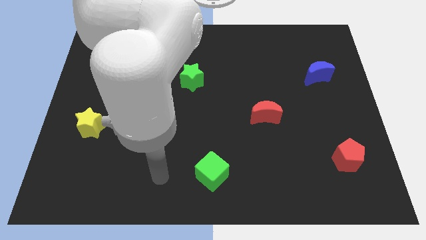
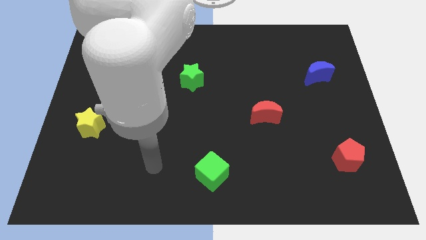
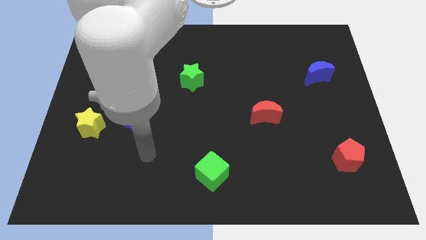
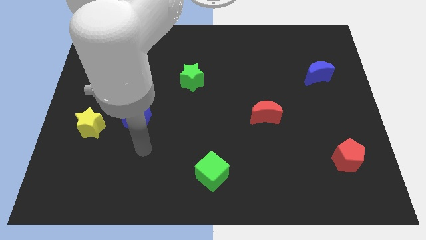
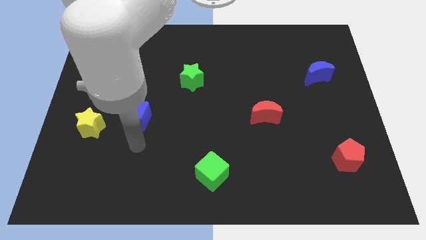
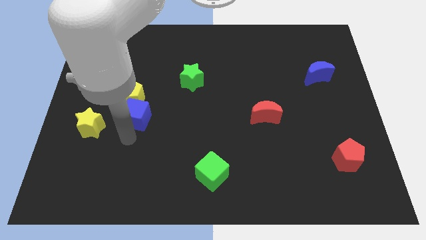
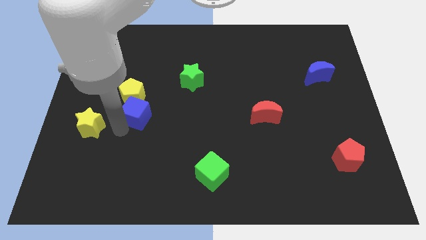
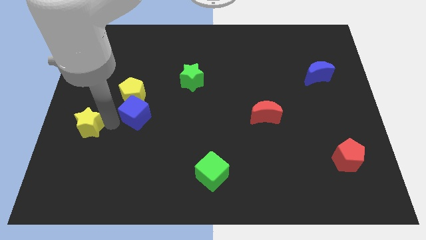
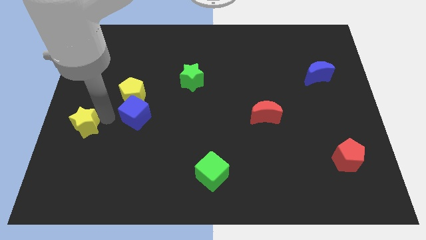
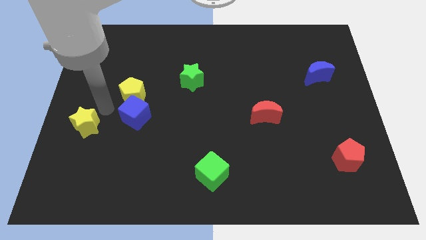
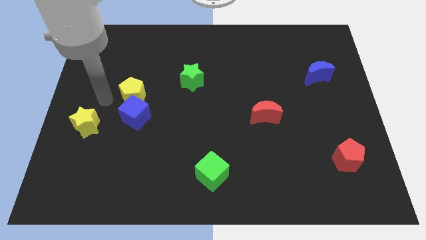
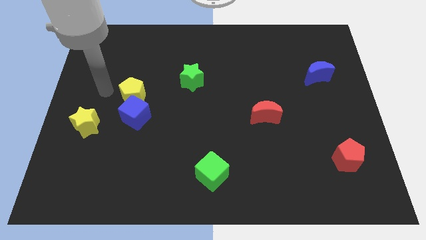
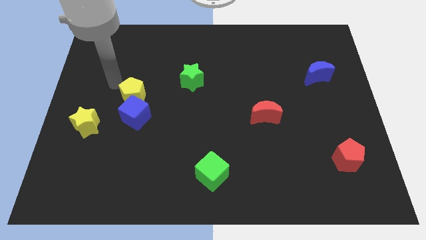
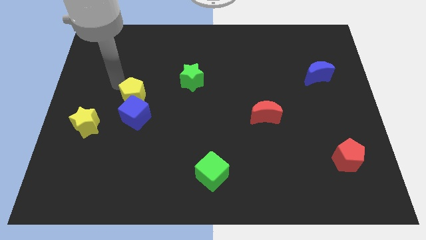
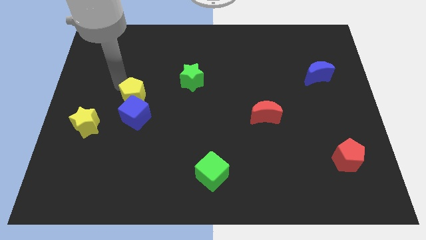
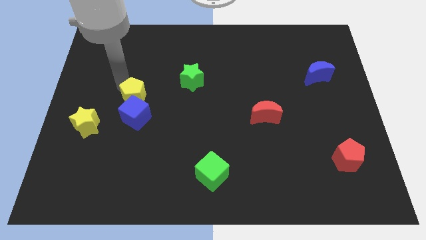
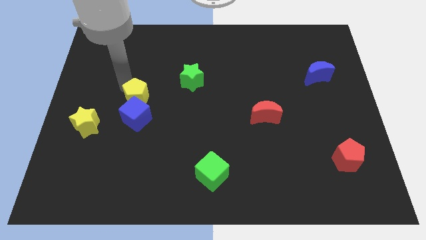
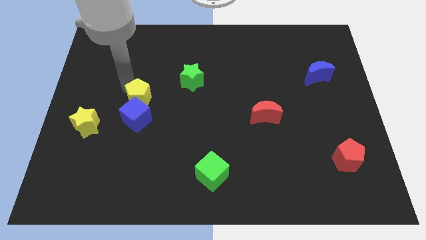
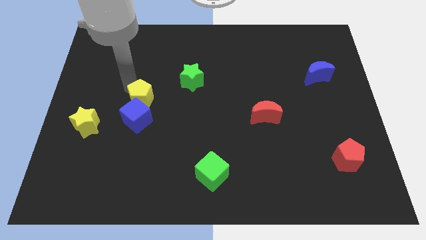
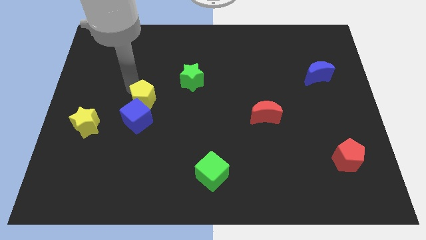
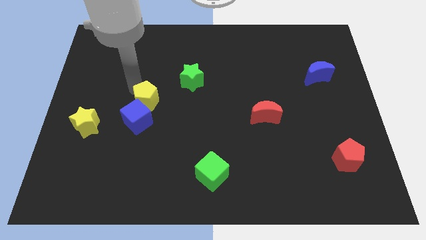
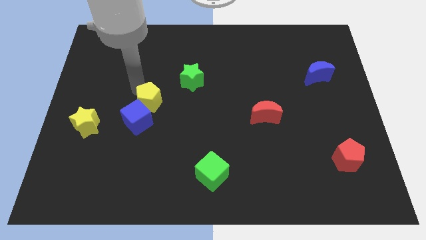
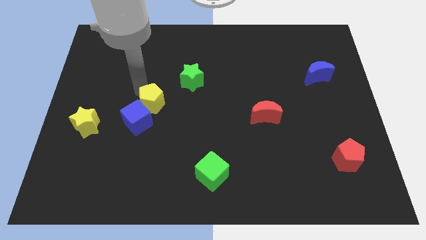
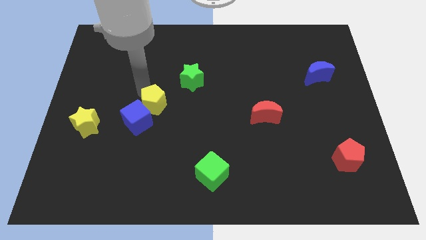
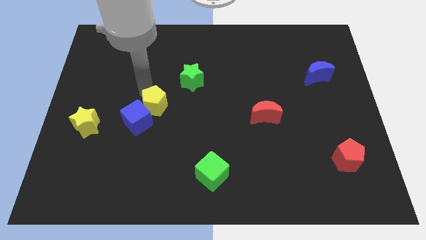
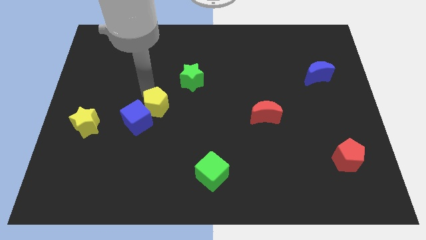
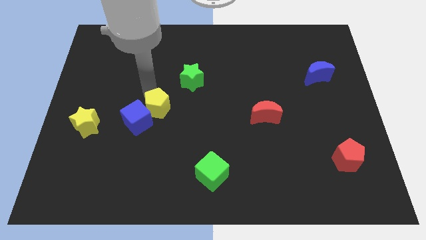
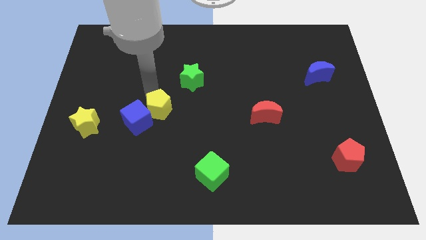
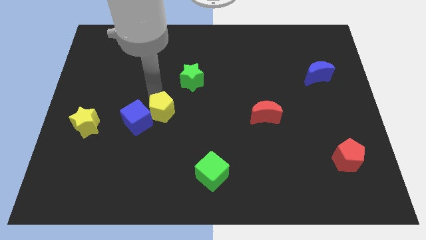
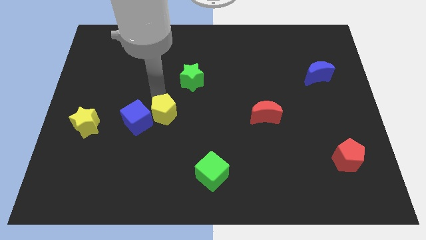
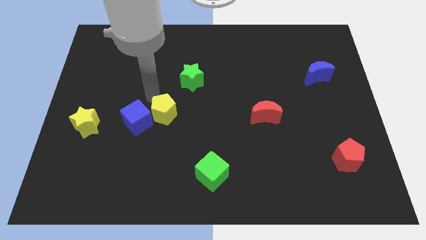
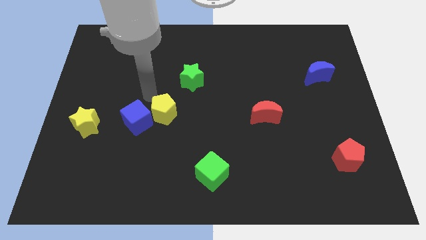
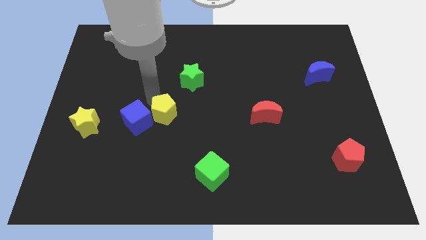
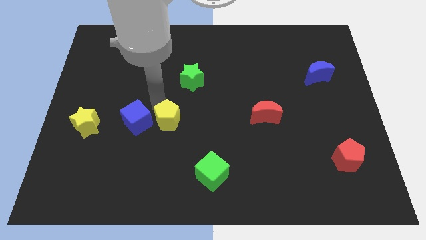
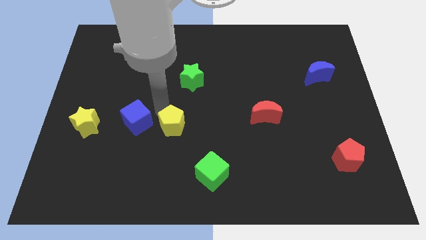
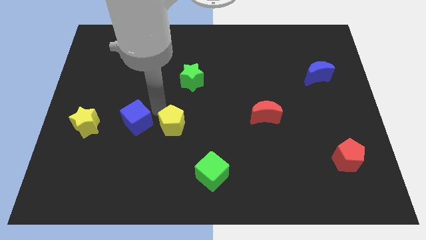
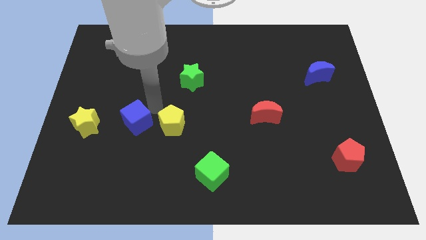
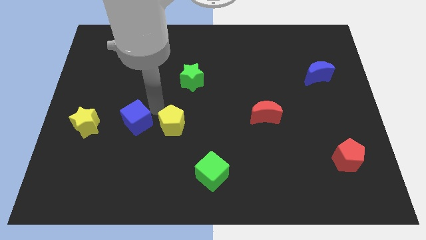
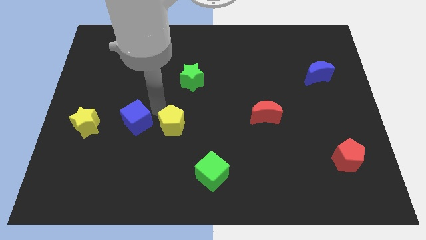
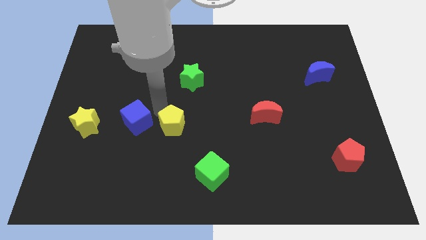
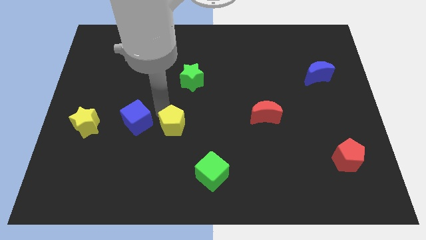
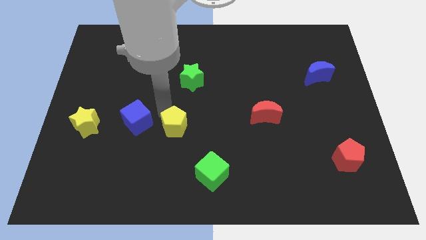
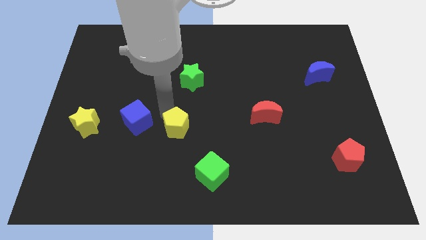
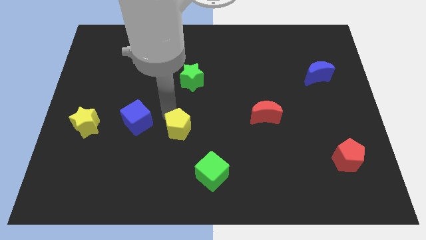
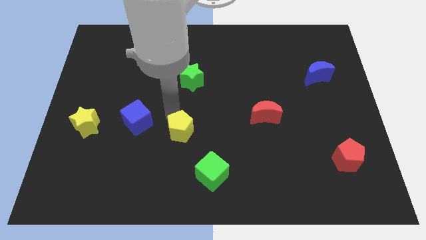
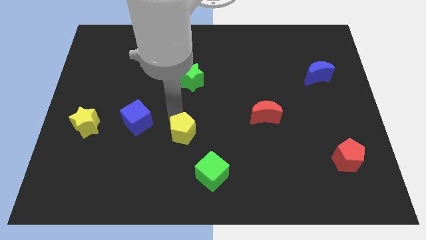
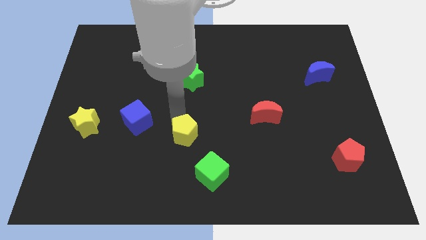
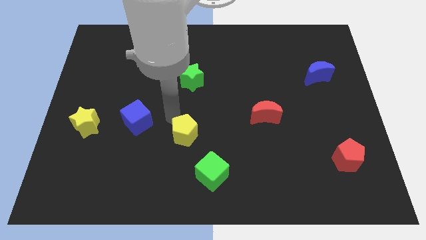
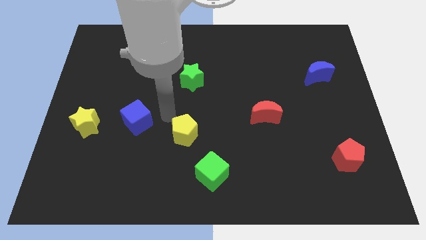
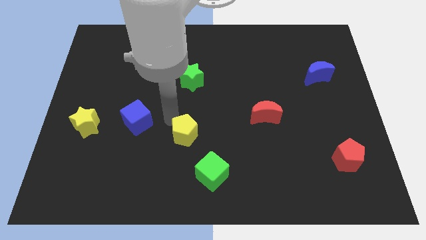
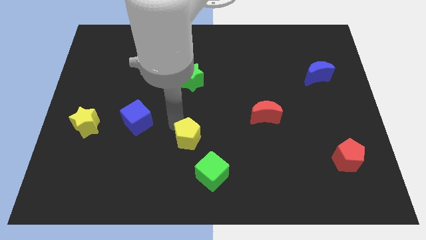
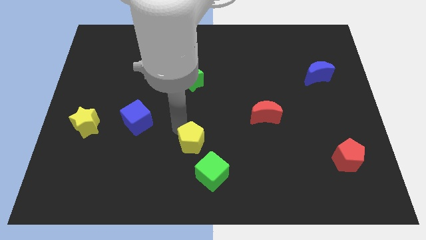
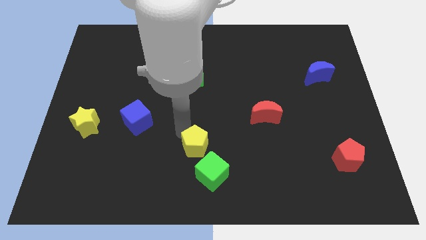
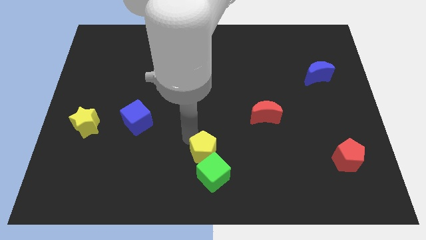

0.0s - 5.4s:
slide the yellow pentagon towards the green cube

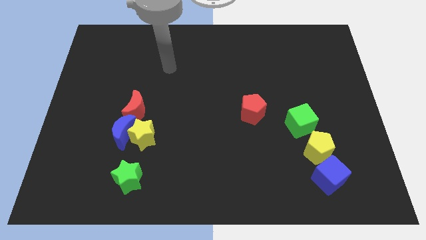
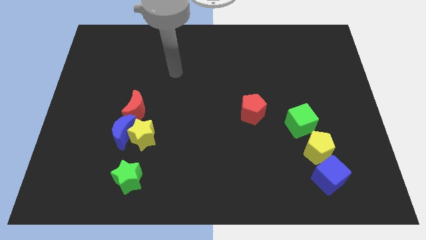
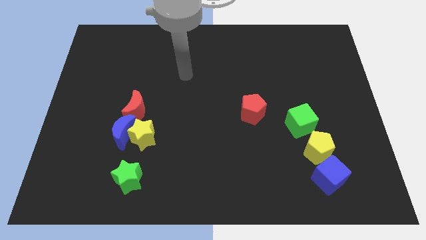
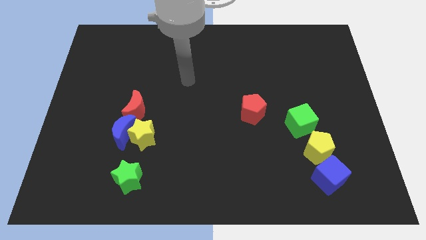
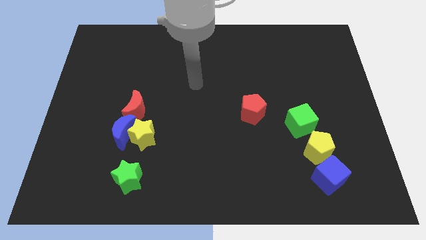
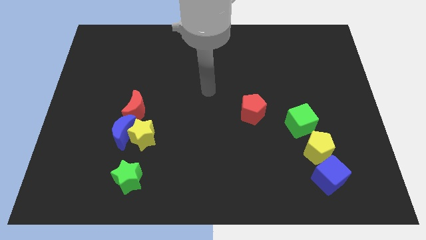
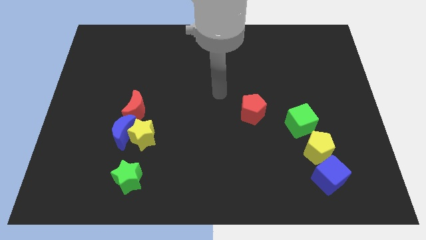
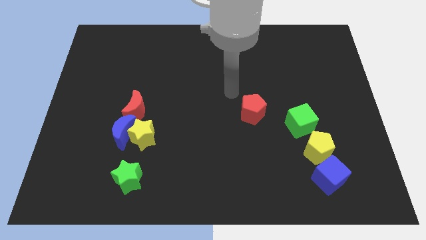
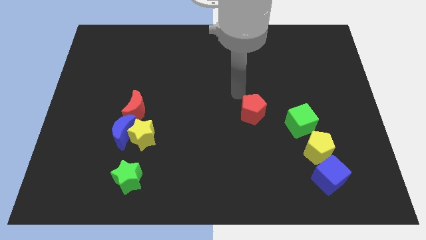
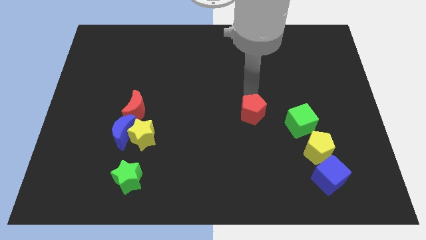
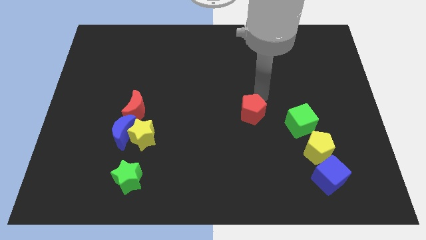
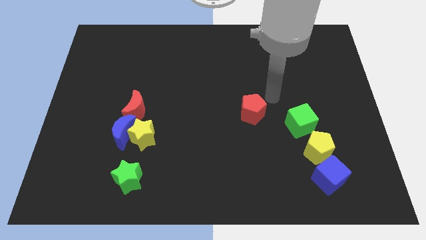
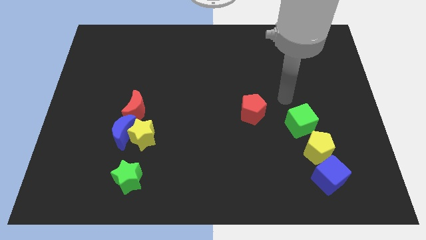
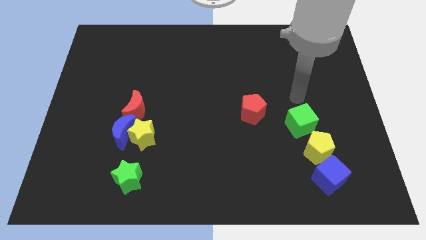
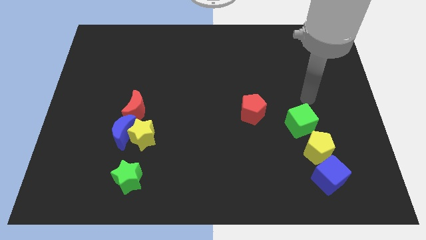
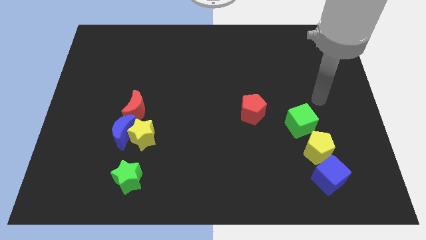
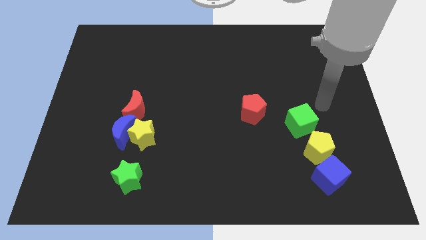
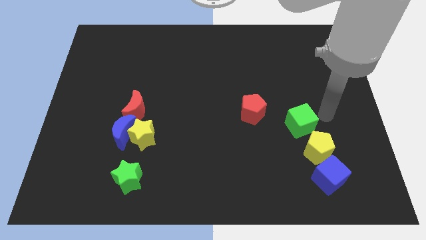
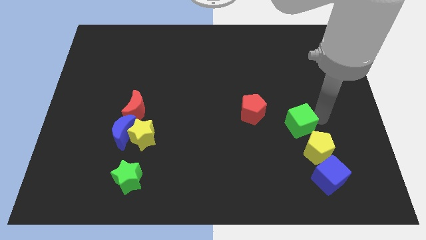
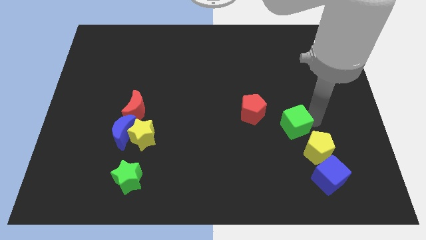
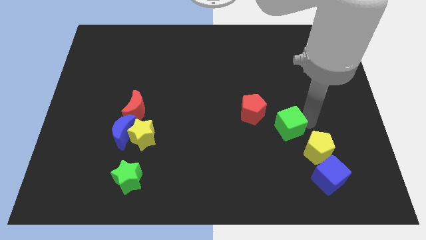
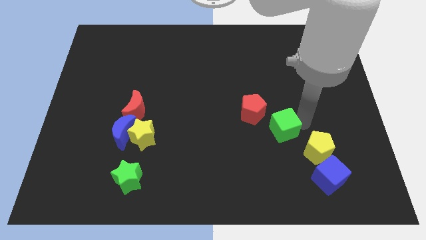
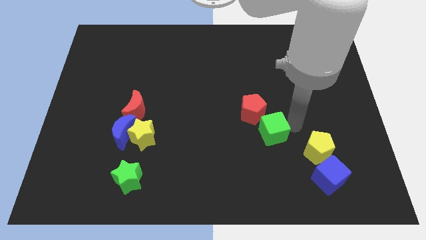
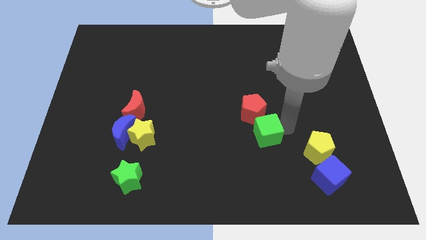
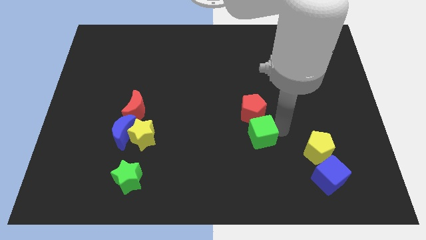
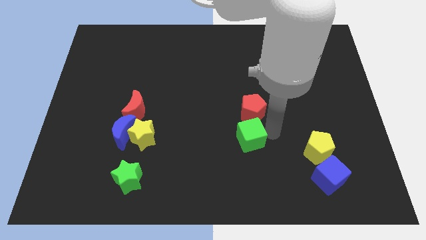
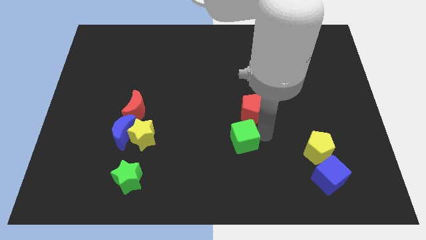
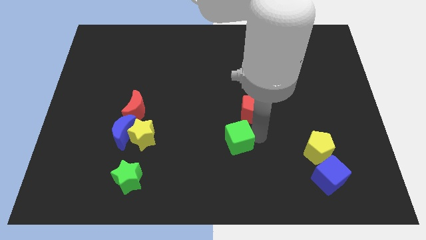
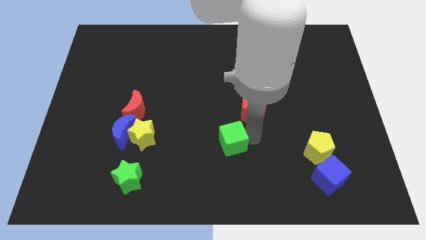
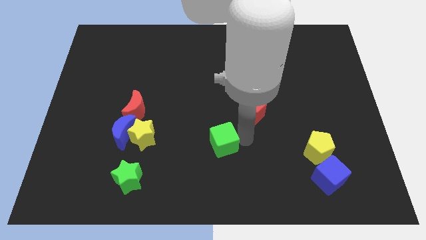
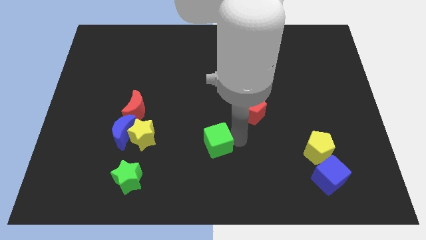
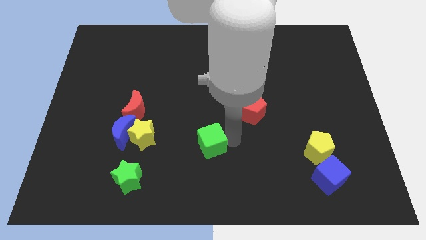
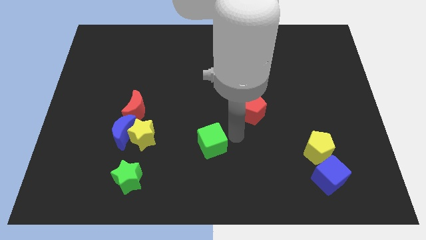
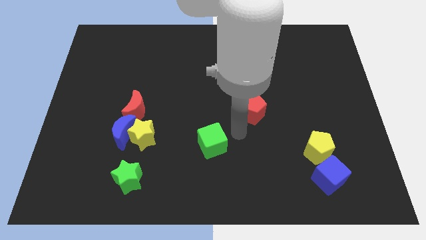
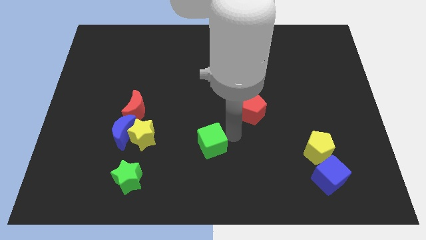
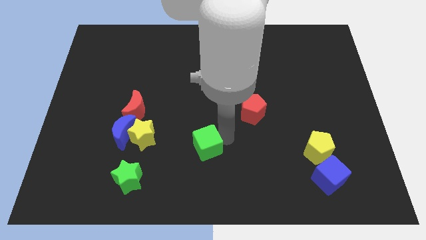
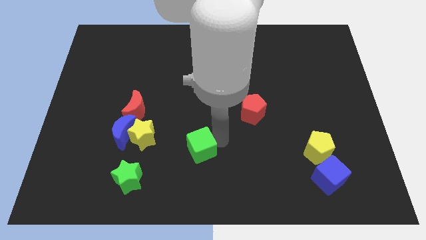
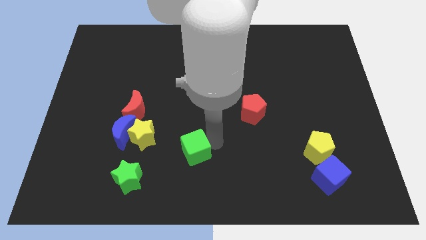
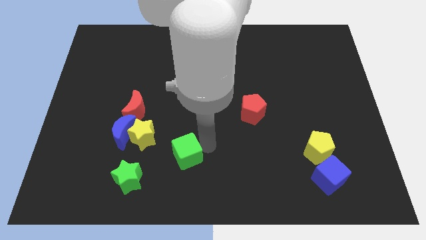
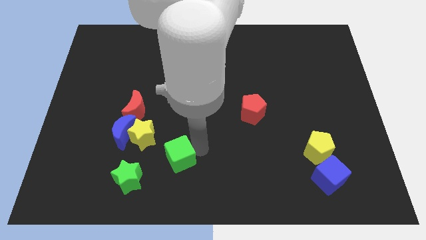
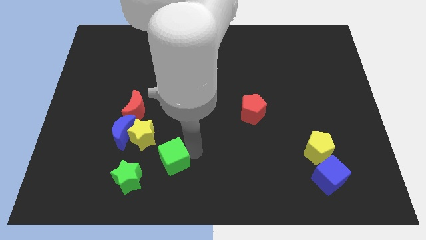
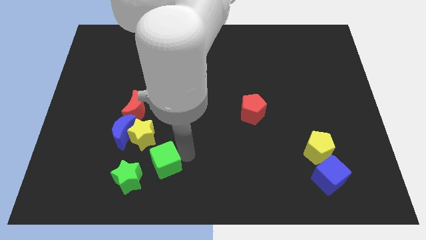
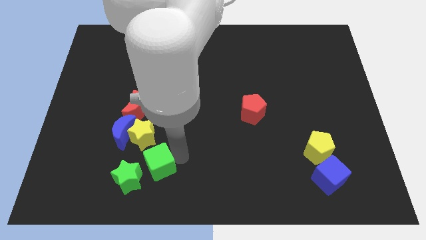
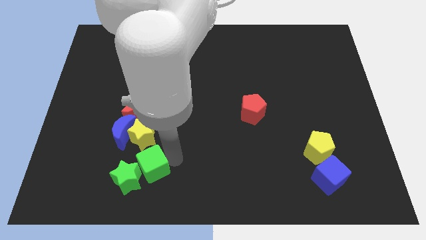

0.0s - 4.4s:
push the green cube to the green star
